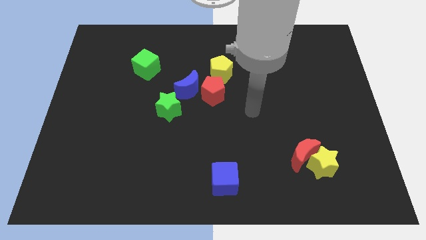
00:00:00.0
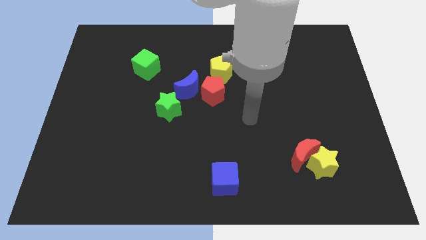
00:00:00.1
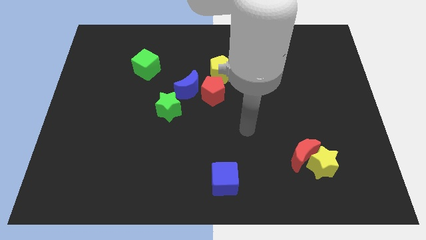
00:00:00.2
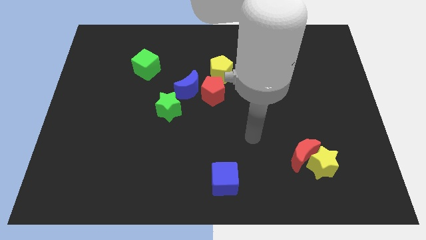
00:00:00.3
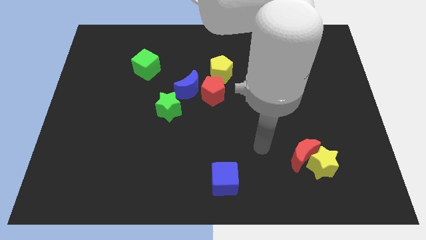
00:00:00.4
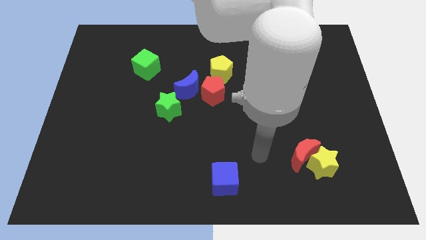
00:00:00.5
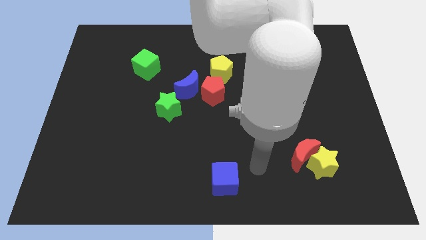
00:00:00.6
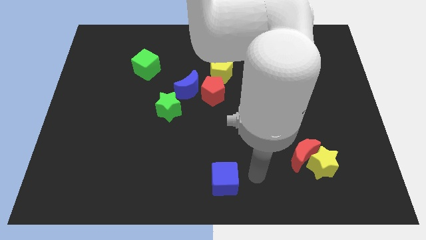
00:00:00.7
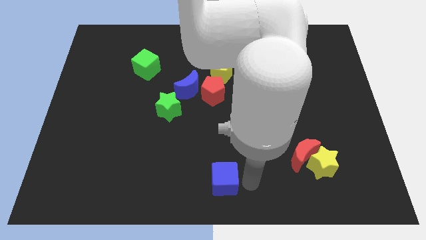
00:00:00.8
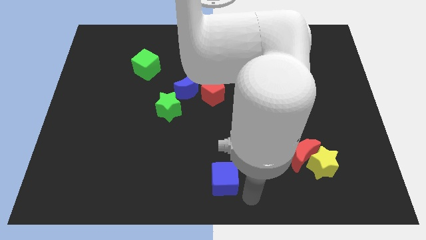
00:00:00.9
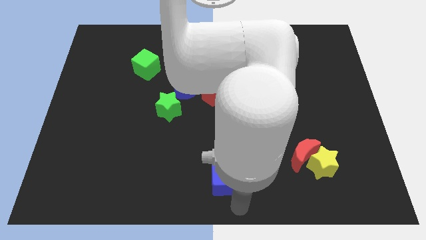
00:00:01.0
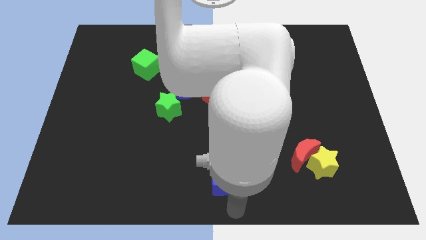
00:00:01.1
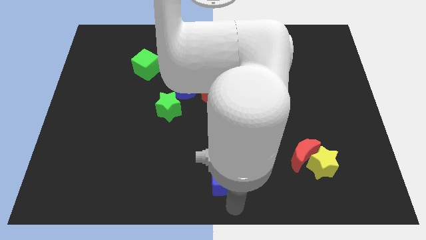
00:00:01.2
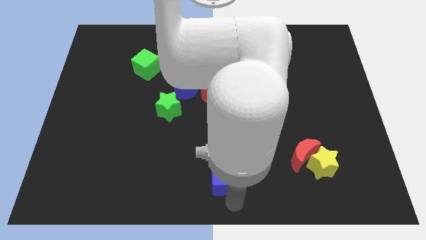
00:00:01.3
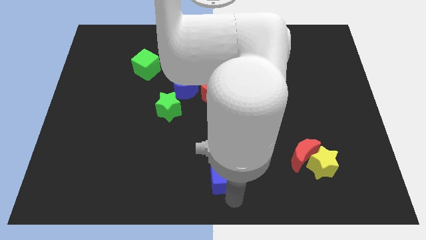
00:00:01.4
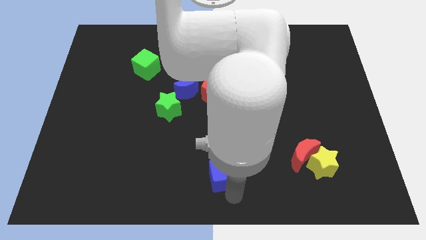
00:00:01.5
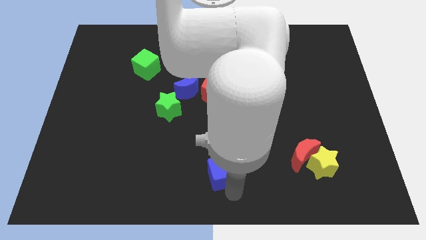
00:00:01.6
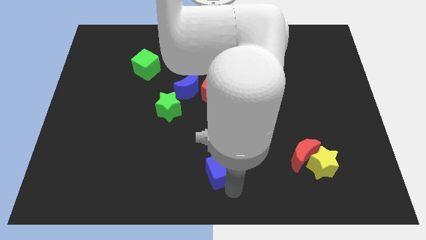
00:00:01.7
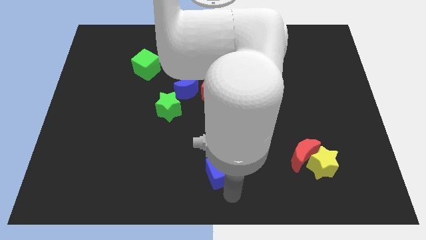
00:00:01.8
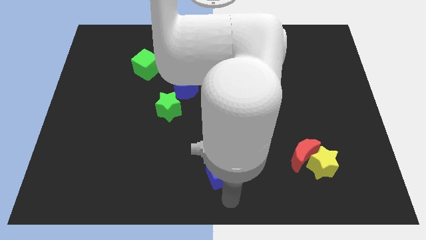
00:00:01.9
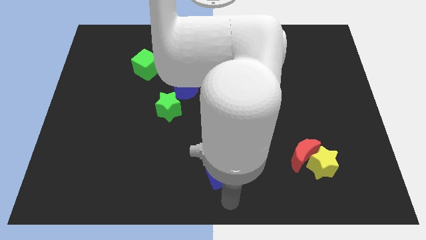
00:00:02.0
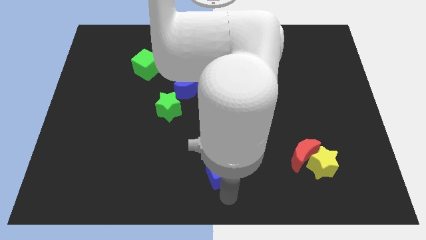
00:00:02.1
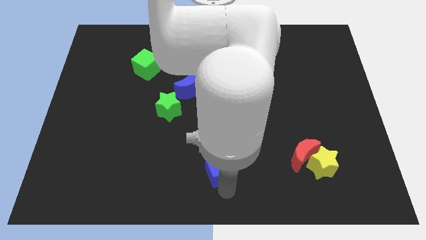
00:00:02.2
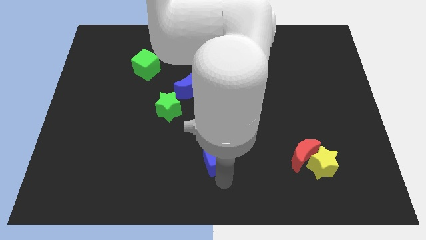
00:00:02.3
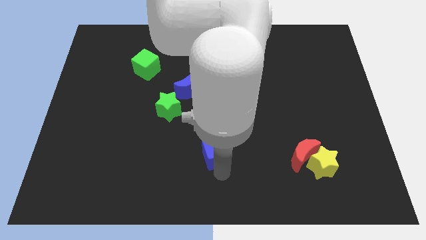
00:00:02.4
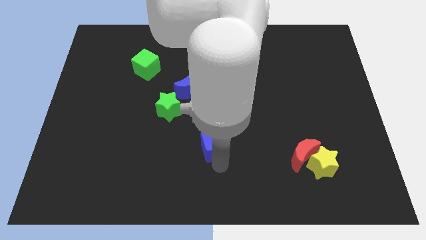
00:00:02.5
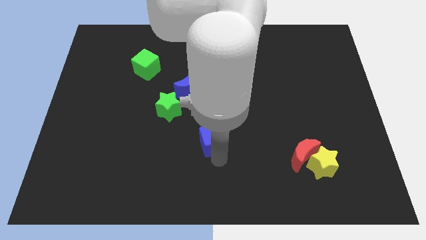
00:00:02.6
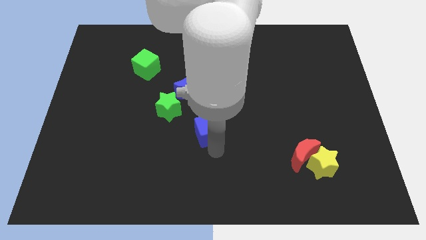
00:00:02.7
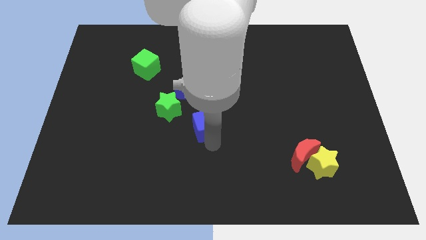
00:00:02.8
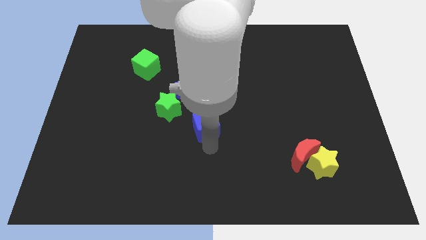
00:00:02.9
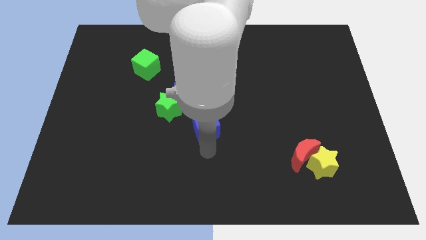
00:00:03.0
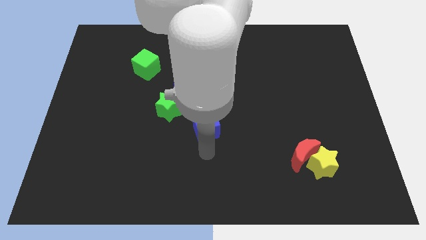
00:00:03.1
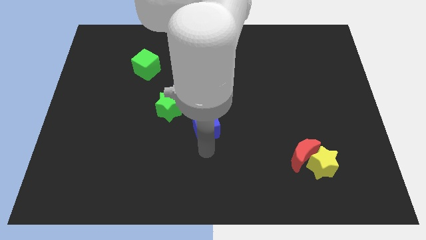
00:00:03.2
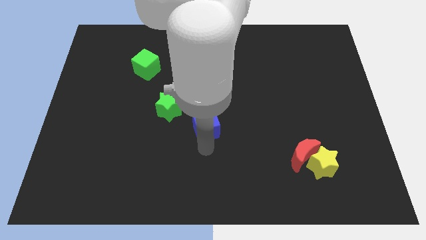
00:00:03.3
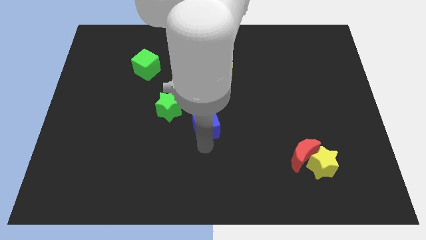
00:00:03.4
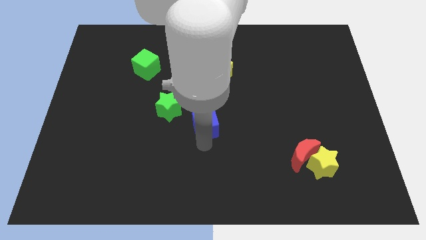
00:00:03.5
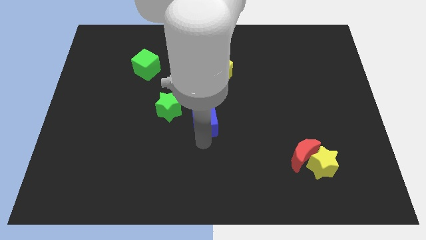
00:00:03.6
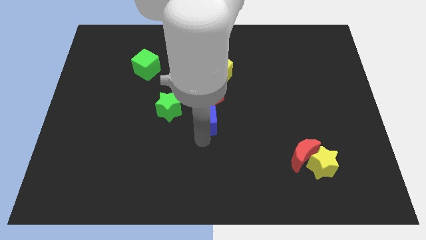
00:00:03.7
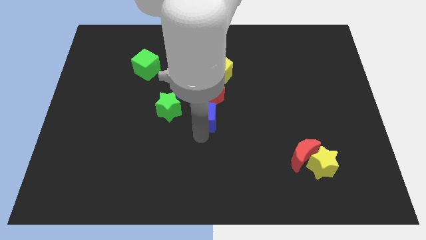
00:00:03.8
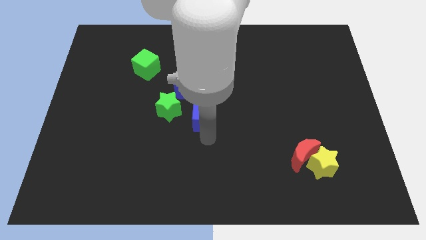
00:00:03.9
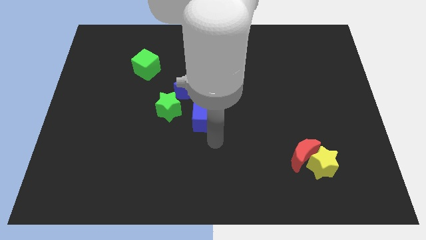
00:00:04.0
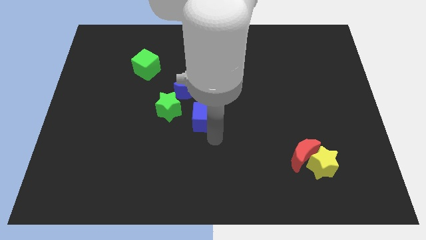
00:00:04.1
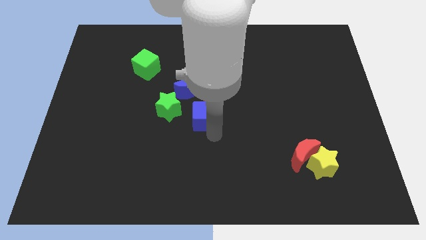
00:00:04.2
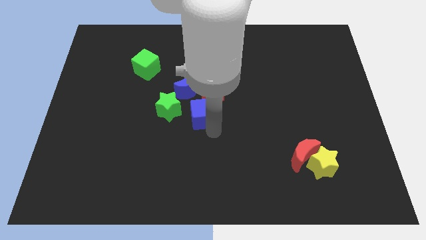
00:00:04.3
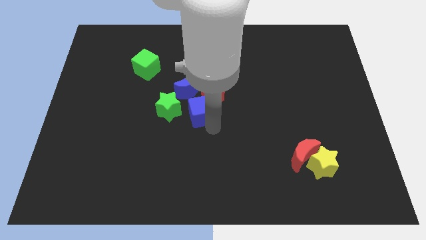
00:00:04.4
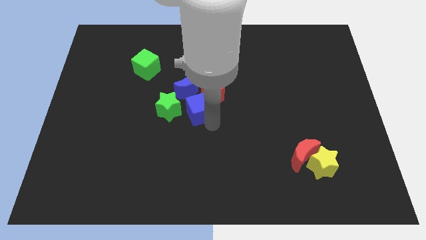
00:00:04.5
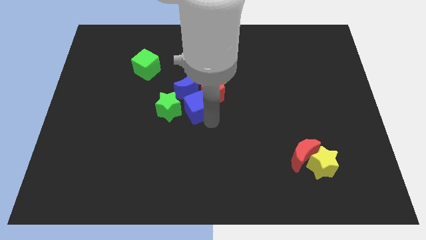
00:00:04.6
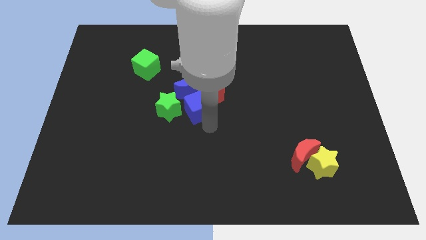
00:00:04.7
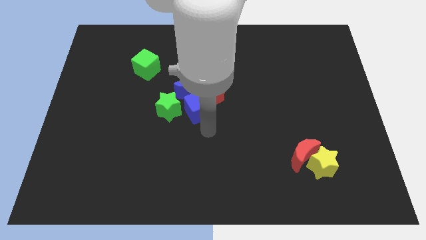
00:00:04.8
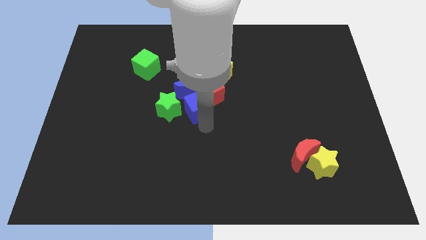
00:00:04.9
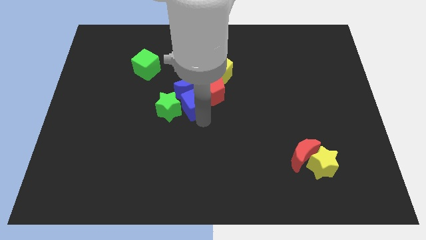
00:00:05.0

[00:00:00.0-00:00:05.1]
slide the blue cube next to the blue moon

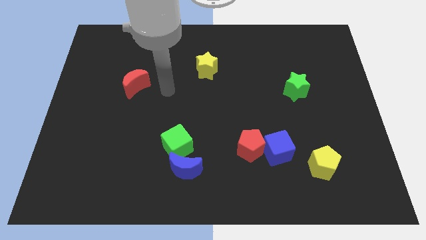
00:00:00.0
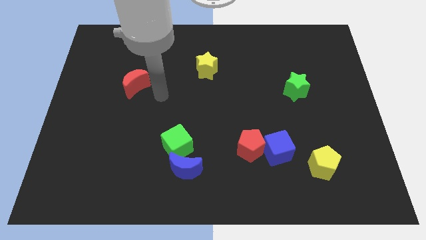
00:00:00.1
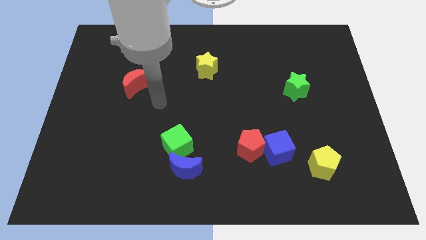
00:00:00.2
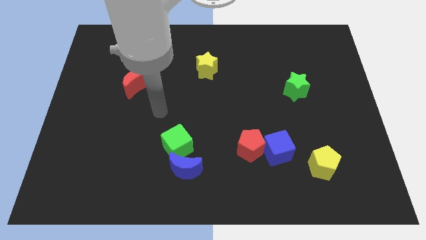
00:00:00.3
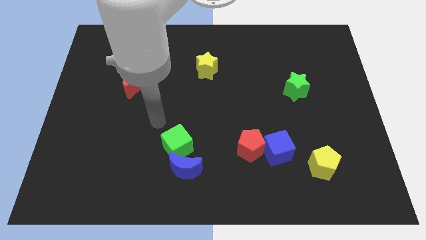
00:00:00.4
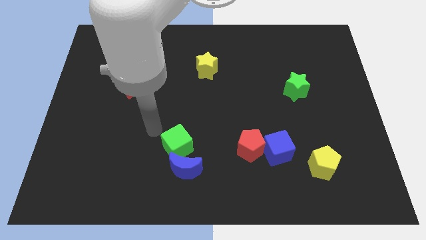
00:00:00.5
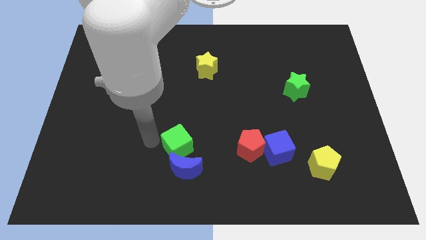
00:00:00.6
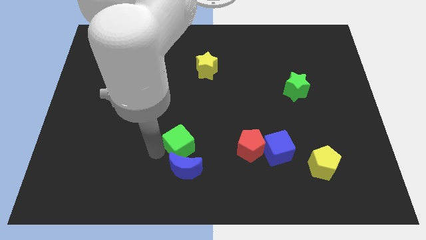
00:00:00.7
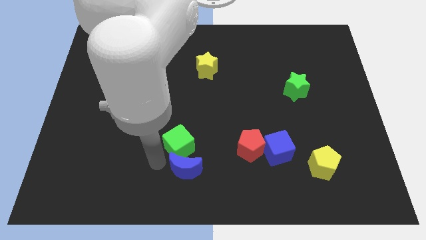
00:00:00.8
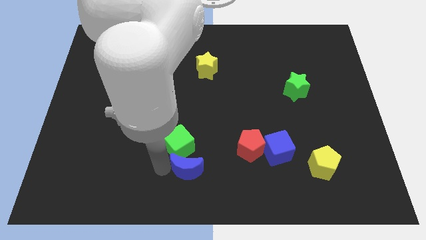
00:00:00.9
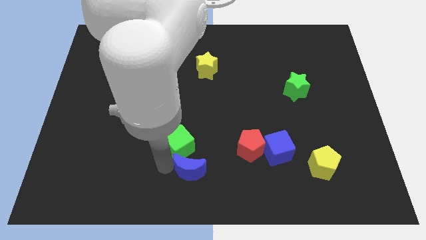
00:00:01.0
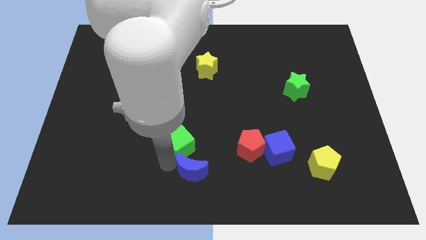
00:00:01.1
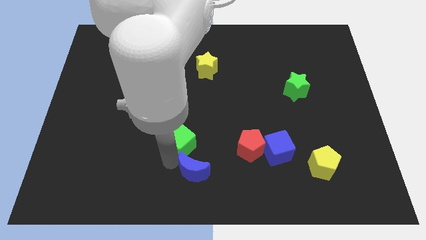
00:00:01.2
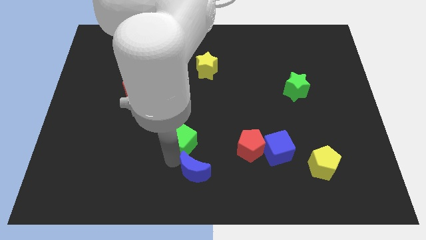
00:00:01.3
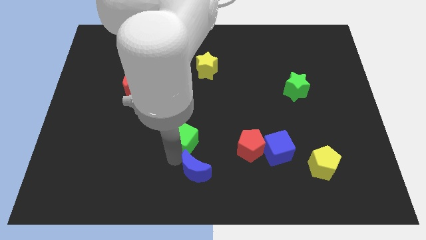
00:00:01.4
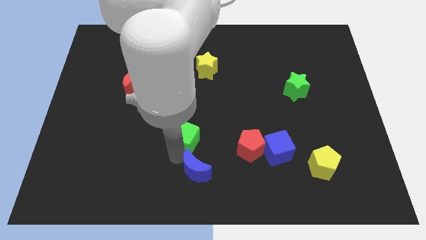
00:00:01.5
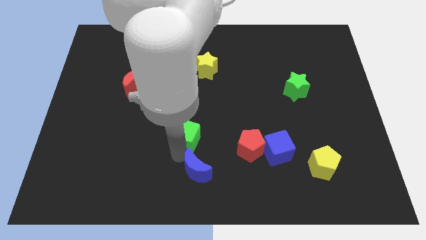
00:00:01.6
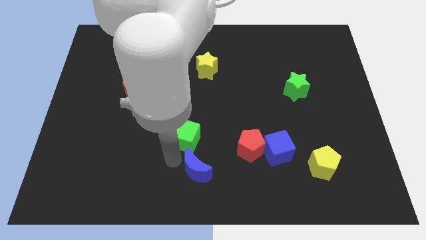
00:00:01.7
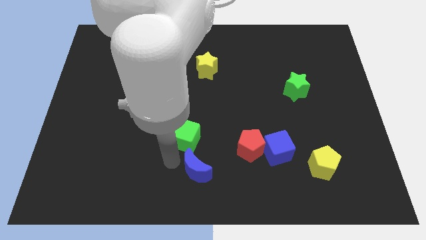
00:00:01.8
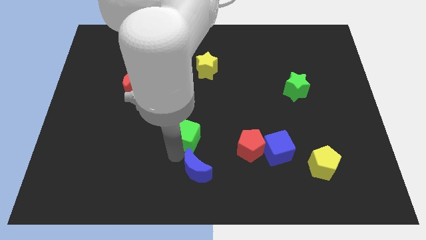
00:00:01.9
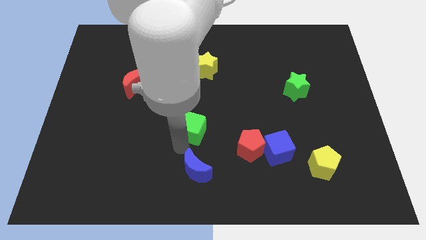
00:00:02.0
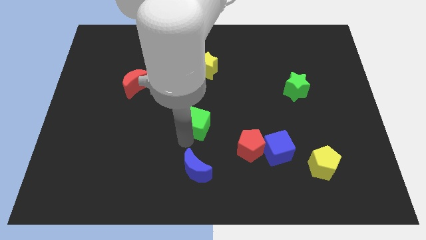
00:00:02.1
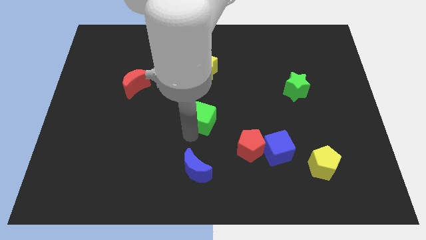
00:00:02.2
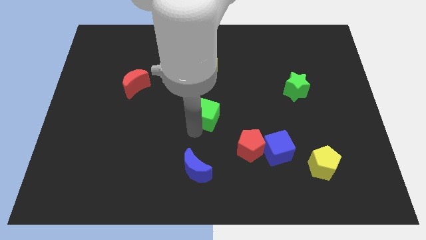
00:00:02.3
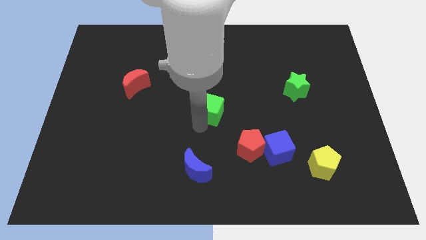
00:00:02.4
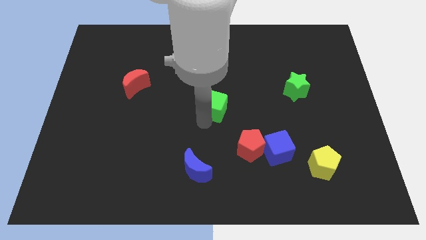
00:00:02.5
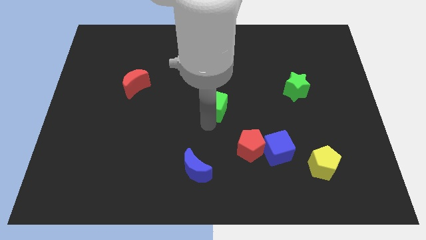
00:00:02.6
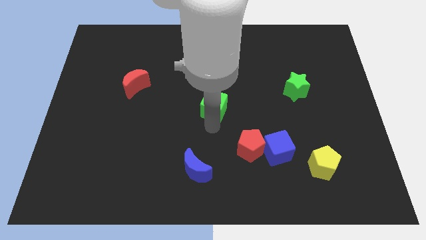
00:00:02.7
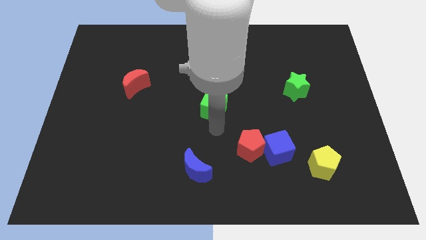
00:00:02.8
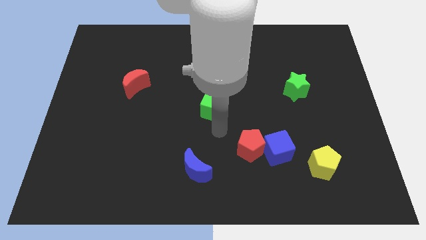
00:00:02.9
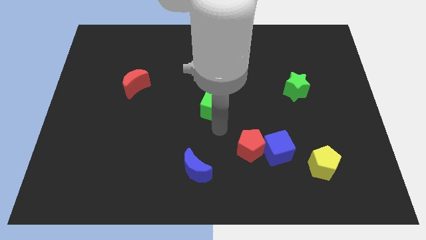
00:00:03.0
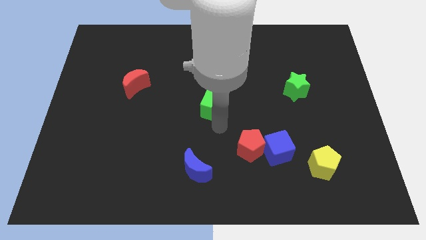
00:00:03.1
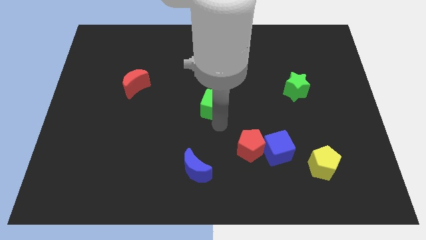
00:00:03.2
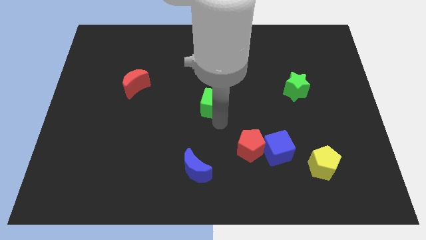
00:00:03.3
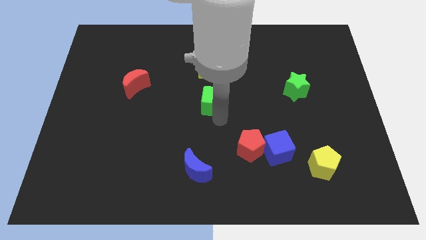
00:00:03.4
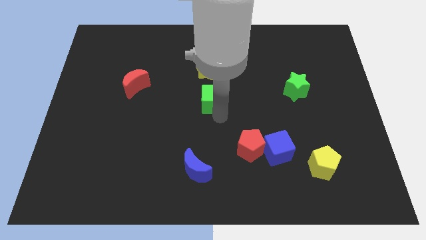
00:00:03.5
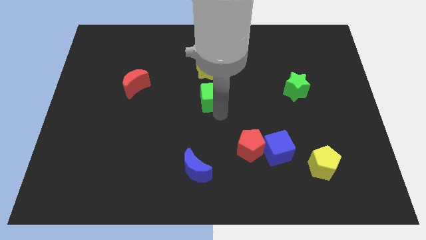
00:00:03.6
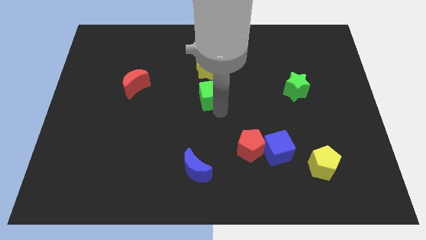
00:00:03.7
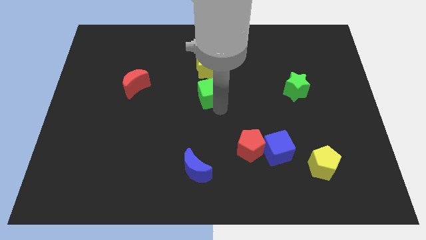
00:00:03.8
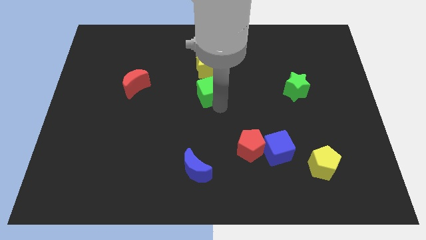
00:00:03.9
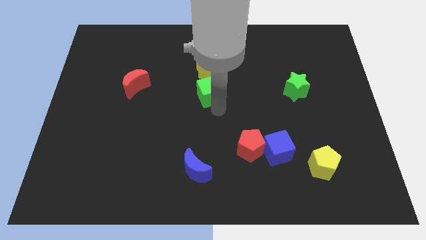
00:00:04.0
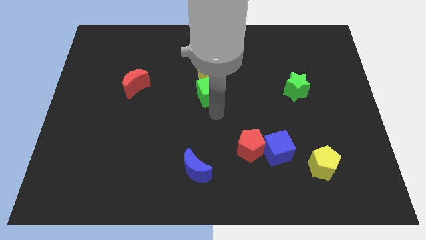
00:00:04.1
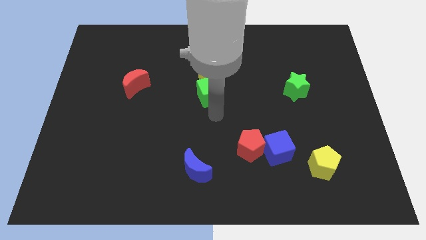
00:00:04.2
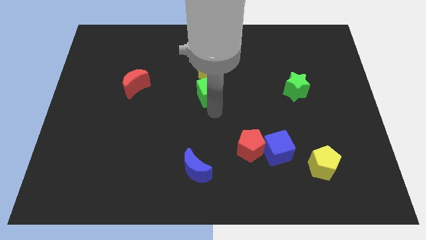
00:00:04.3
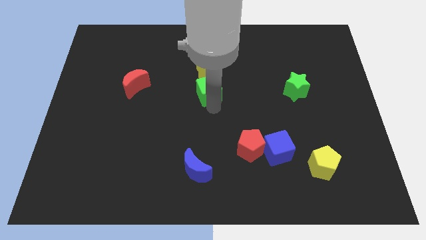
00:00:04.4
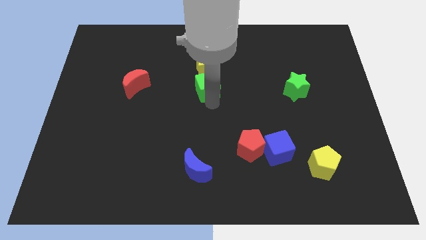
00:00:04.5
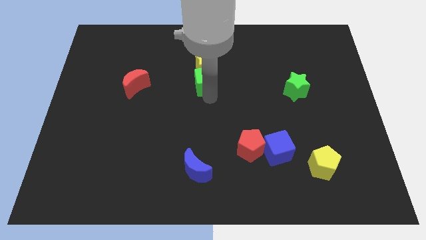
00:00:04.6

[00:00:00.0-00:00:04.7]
move the green cube close to the yellow star
